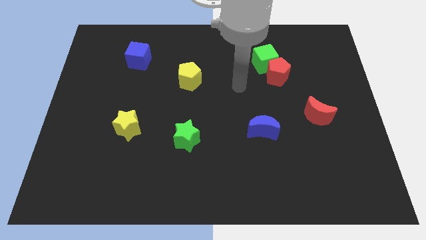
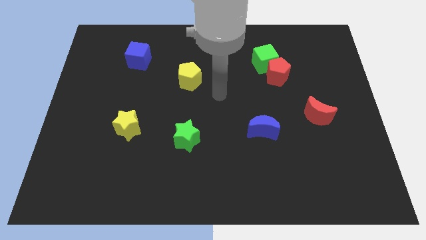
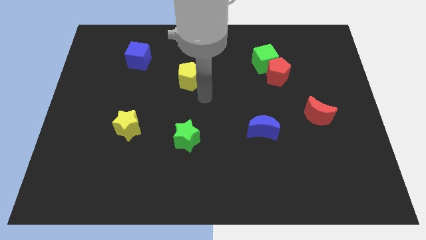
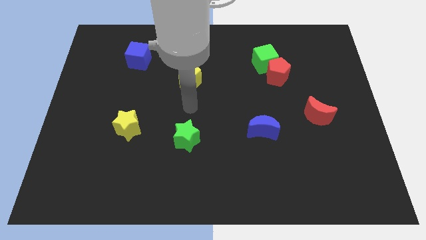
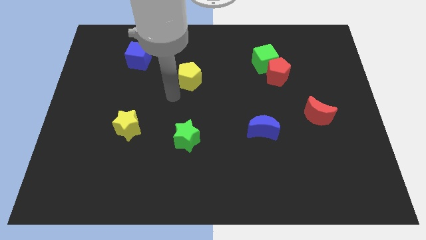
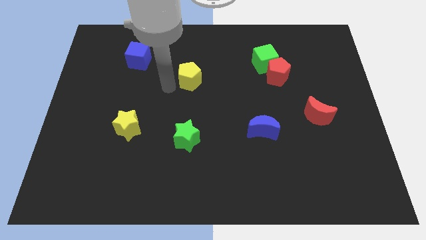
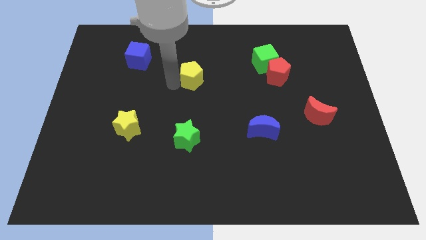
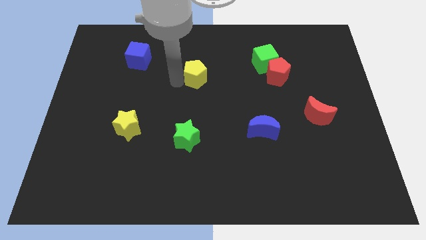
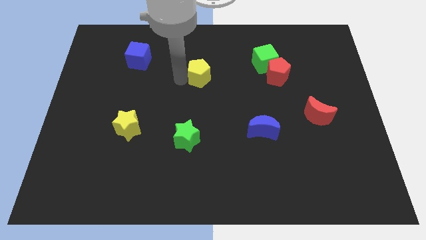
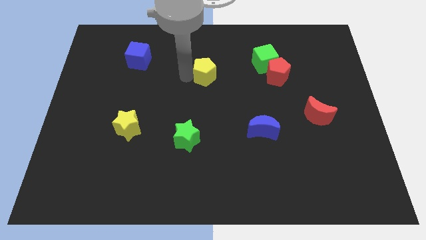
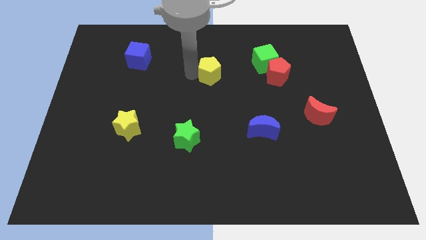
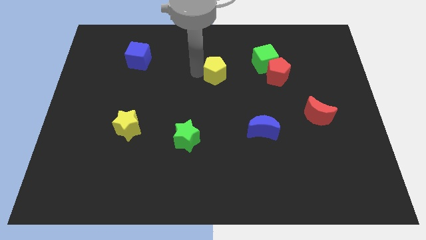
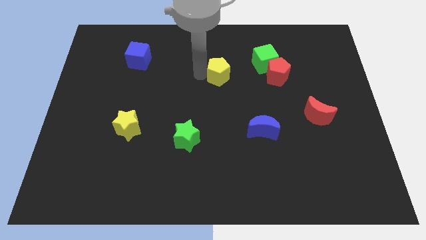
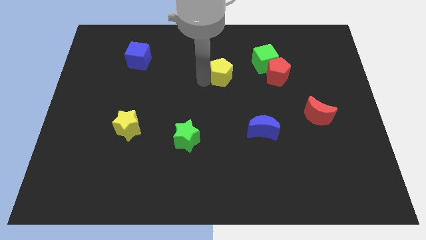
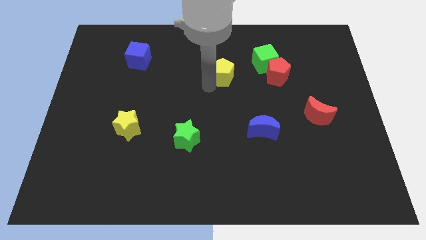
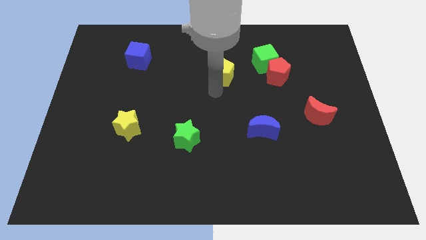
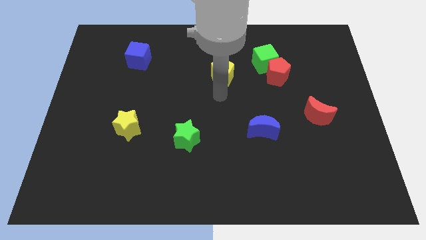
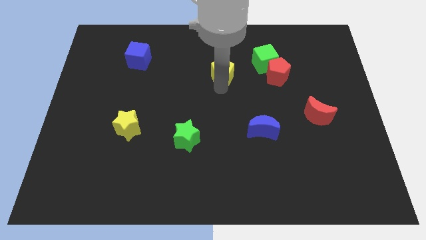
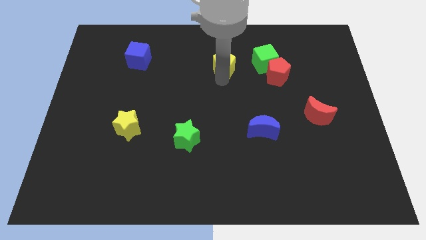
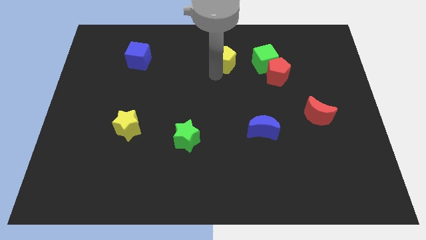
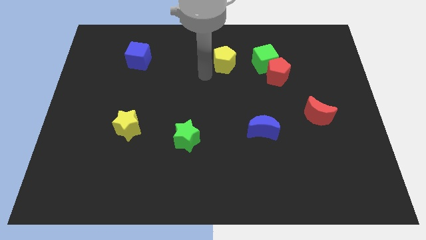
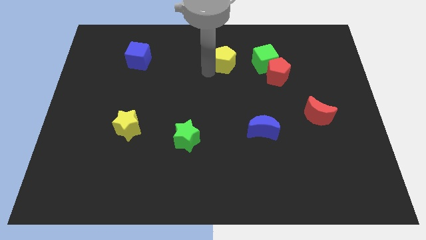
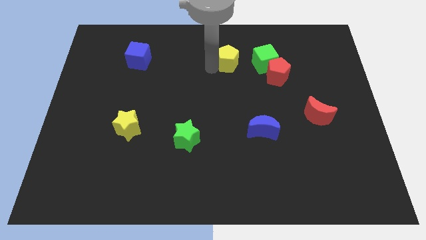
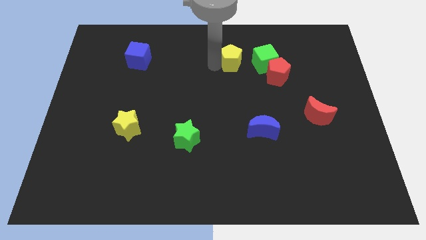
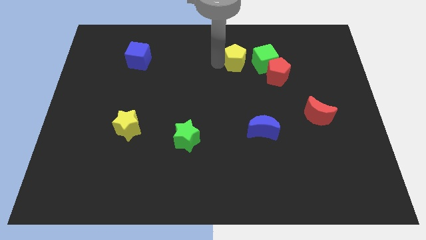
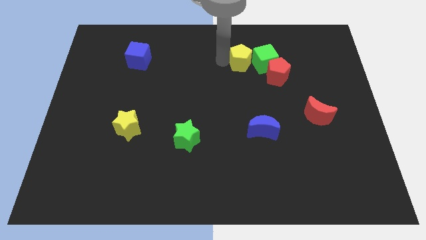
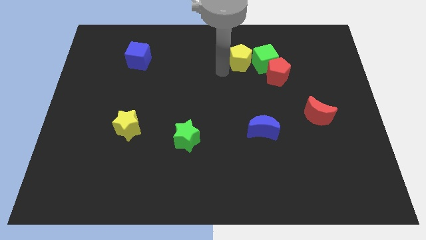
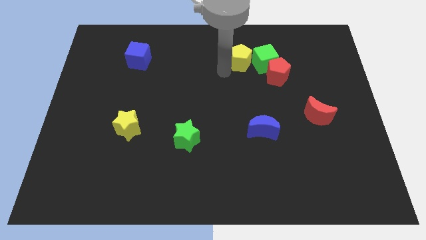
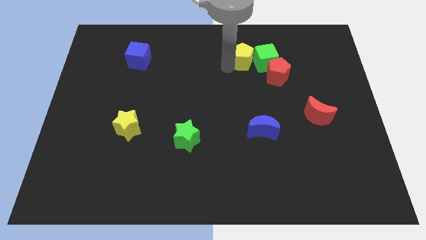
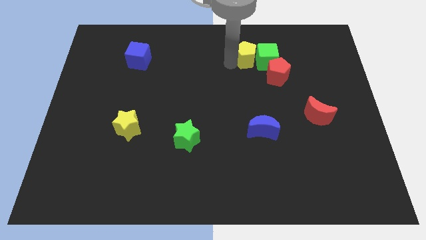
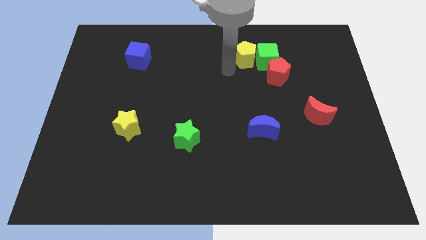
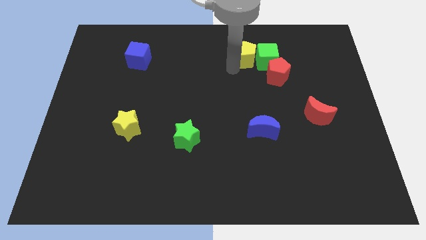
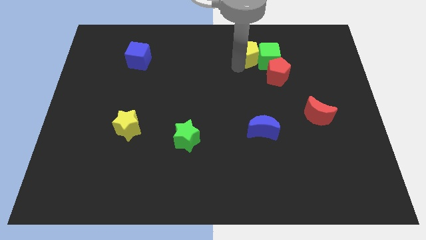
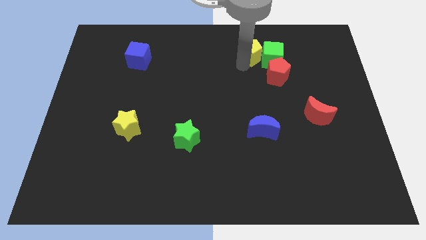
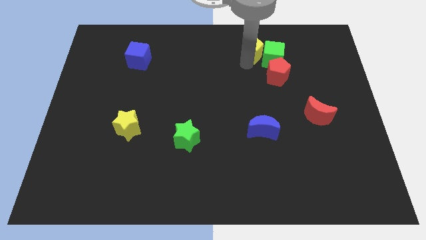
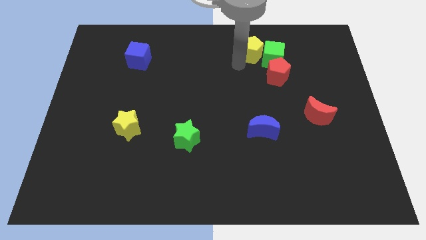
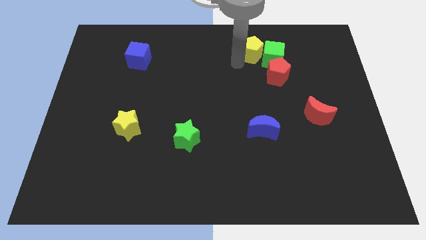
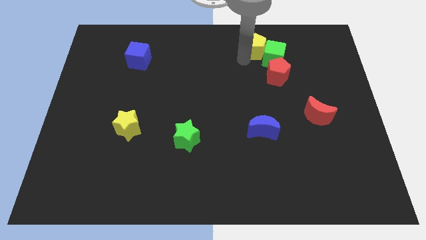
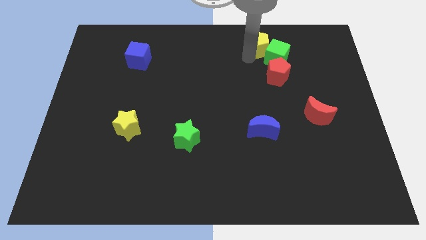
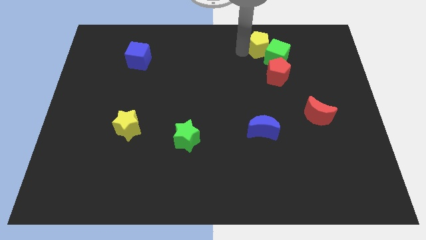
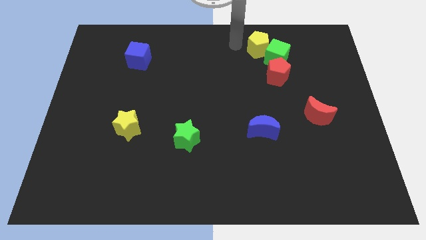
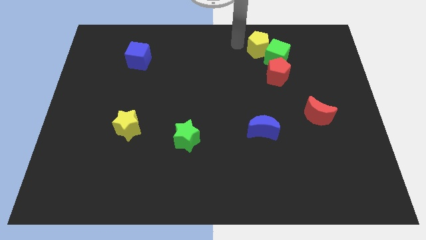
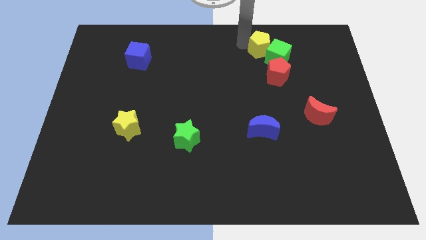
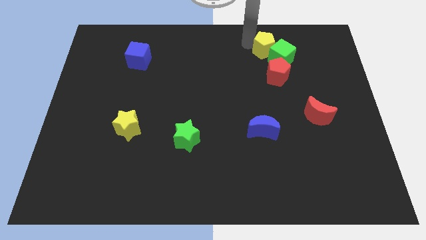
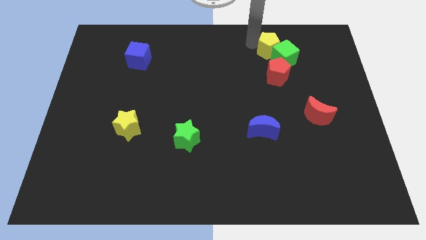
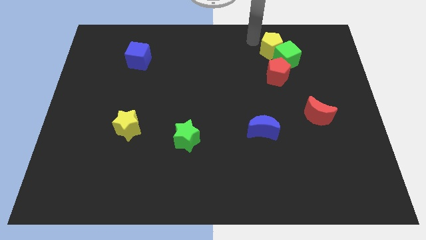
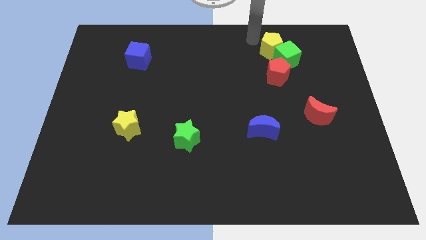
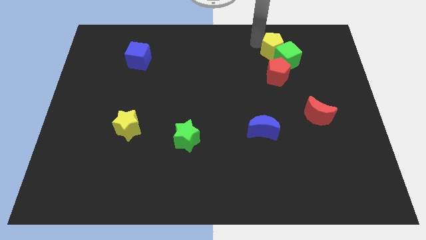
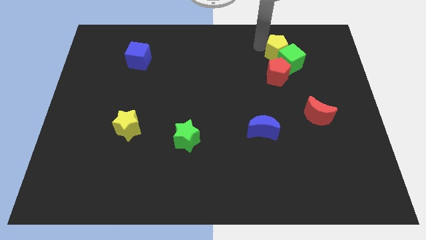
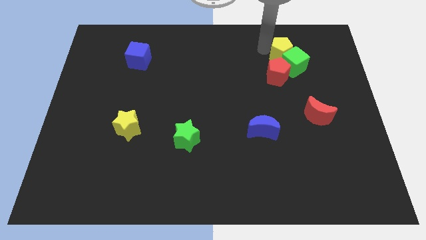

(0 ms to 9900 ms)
push the yellow pentagon diagonally up and to the right of the red pentagon

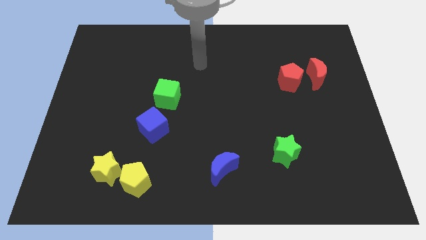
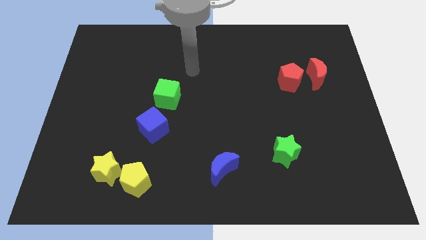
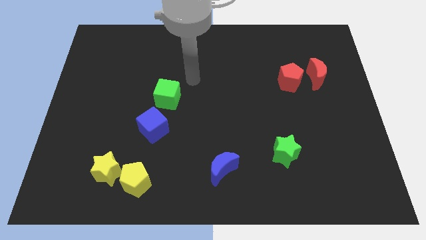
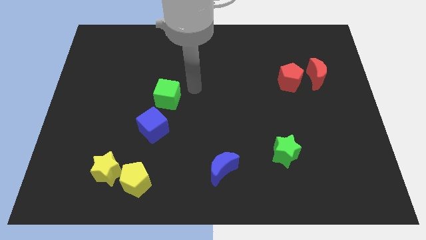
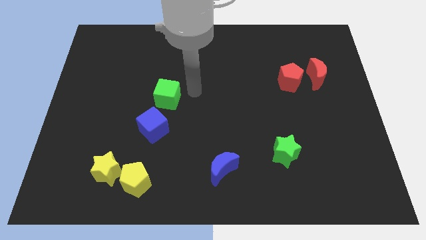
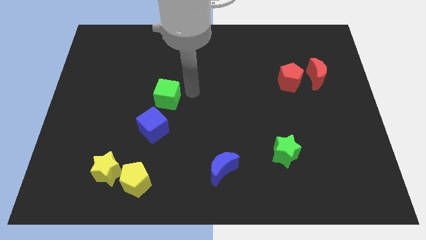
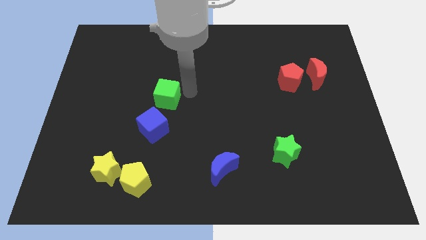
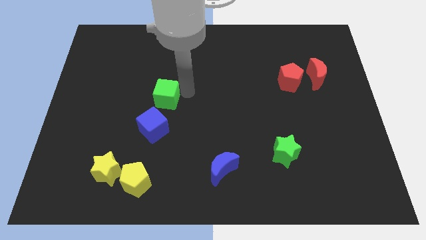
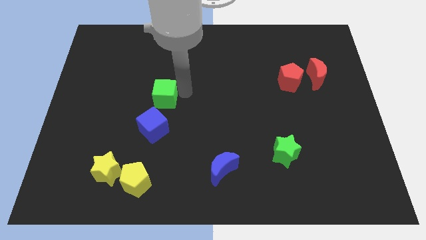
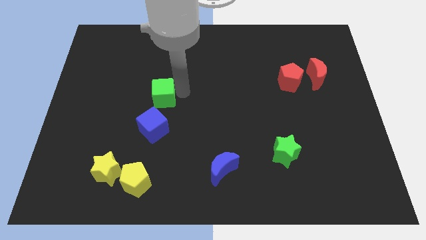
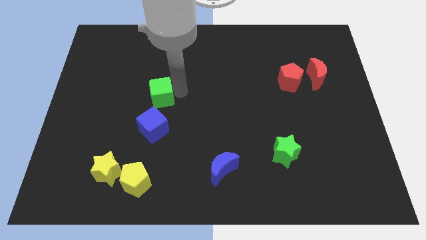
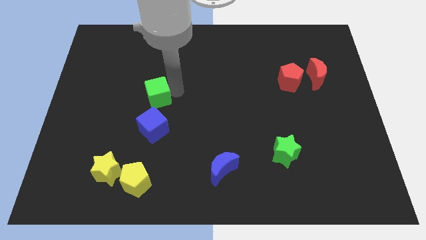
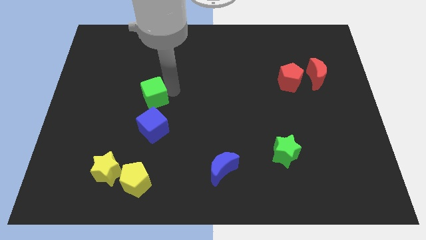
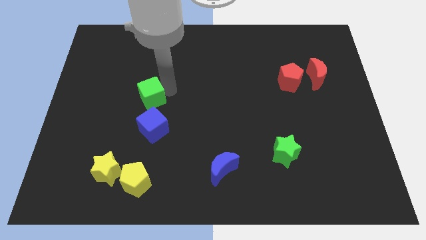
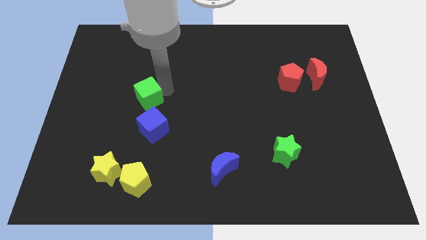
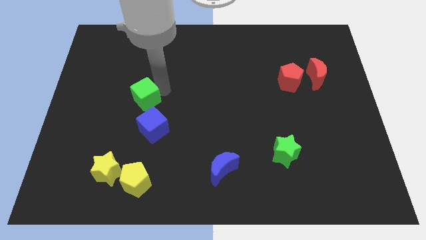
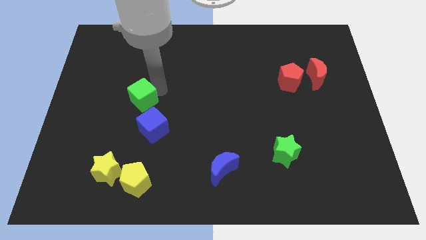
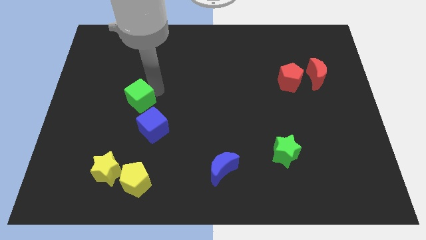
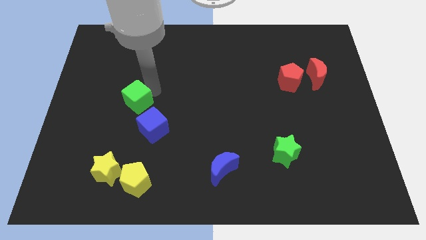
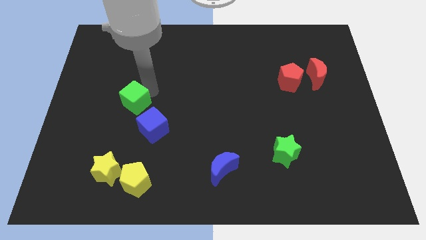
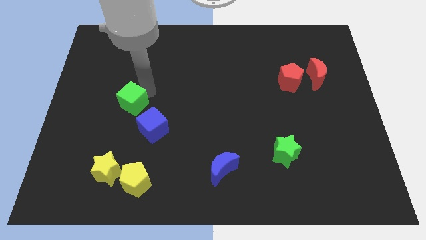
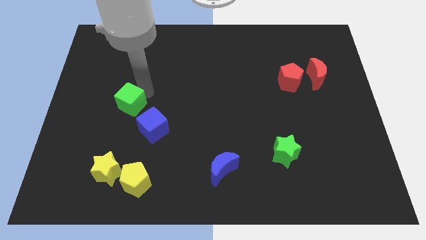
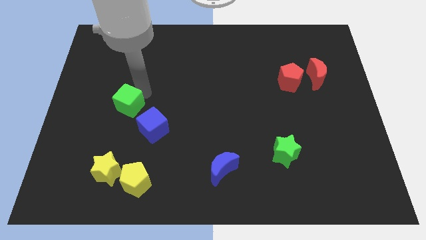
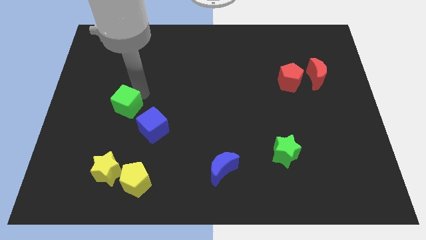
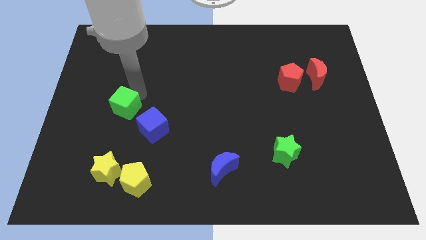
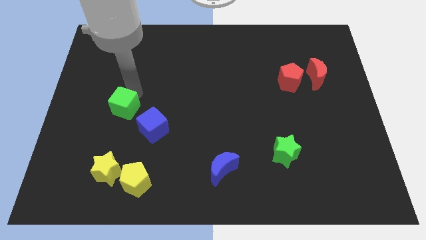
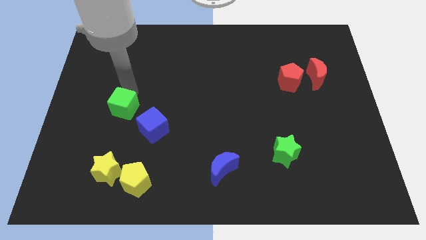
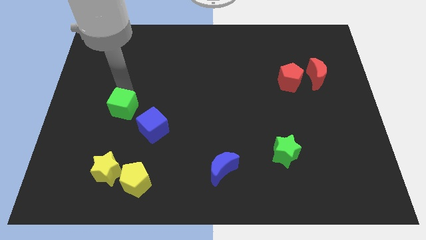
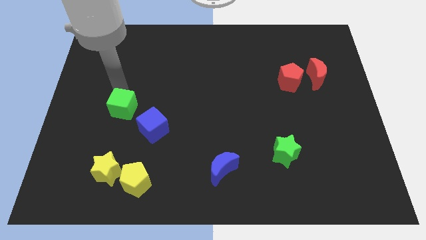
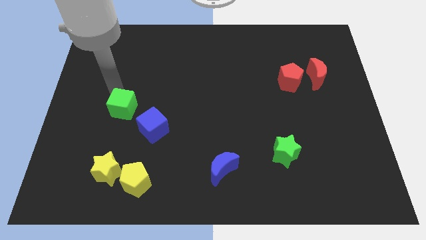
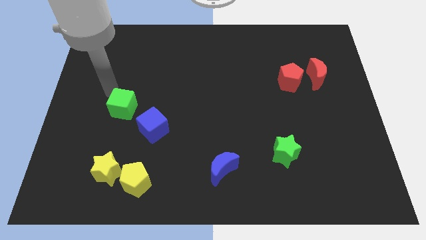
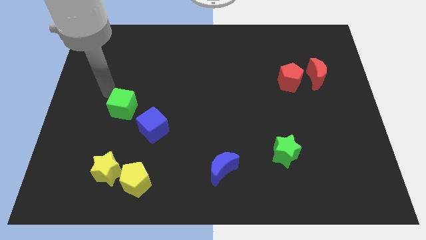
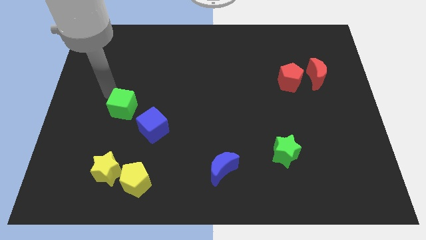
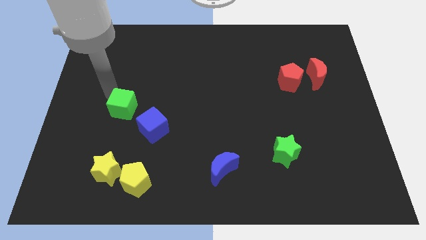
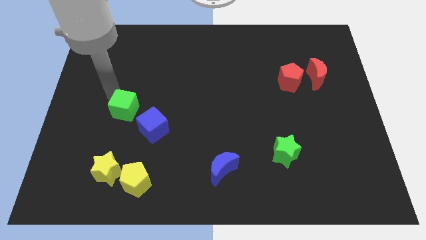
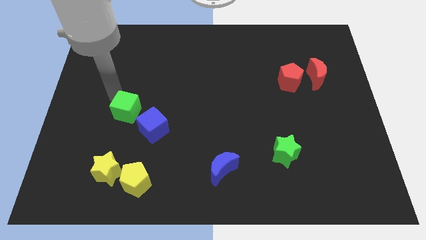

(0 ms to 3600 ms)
push the green cube to the left side of the blue cube
